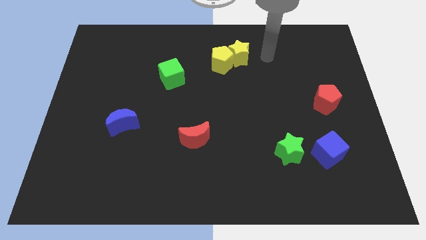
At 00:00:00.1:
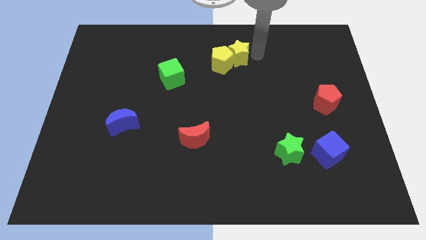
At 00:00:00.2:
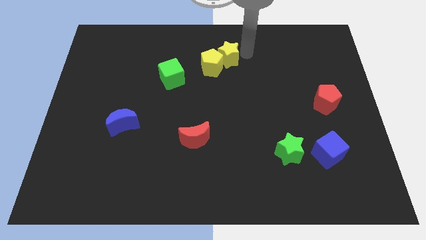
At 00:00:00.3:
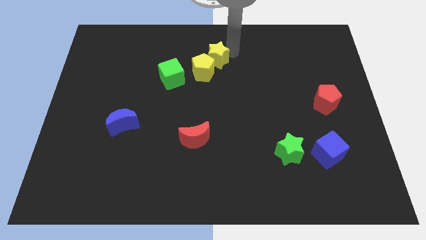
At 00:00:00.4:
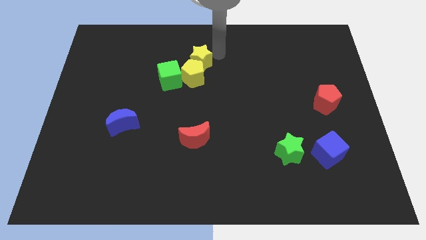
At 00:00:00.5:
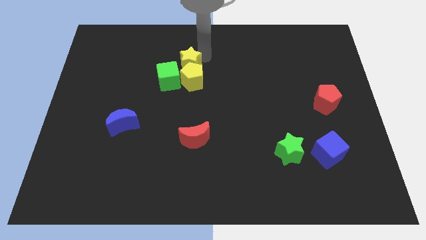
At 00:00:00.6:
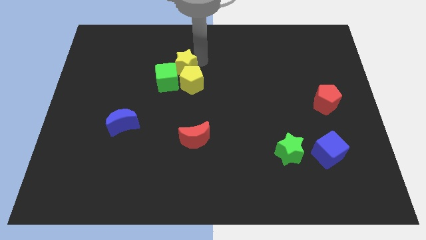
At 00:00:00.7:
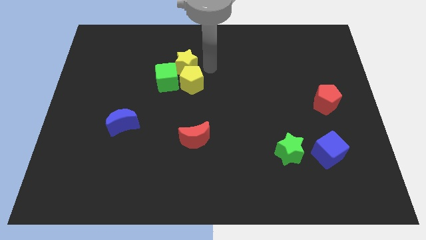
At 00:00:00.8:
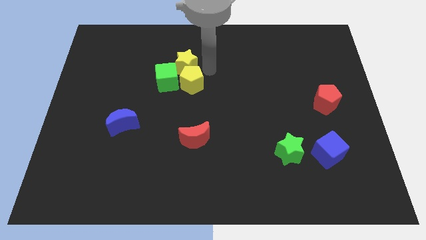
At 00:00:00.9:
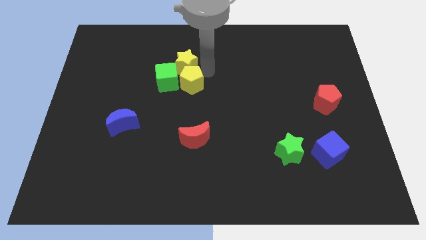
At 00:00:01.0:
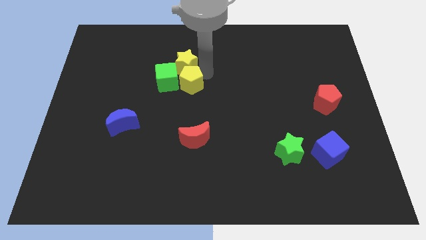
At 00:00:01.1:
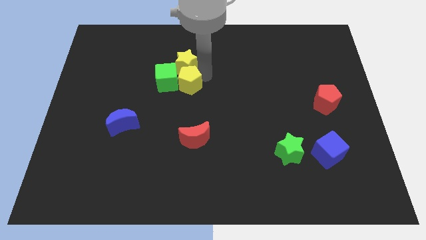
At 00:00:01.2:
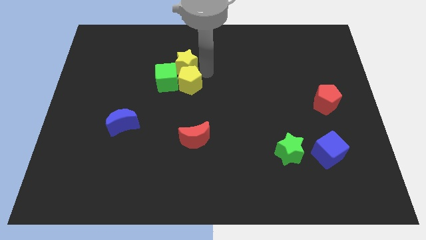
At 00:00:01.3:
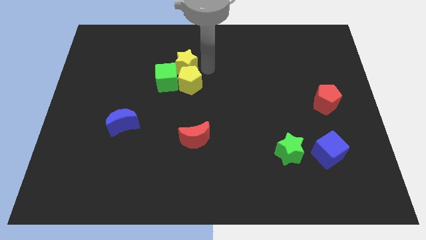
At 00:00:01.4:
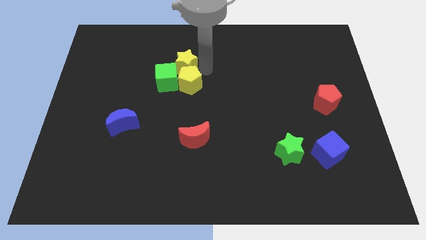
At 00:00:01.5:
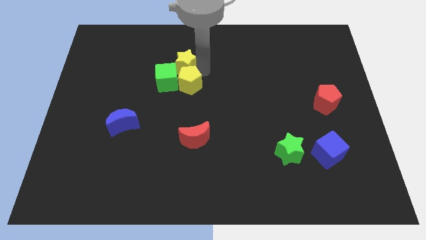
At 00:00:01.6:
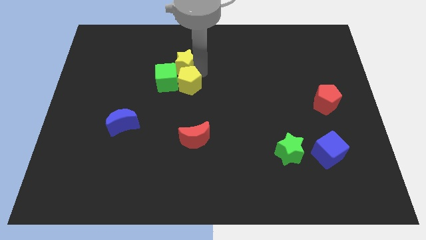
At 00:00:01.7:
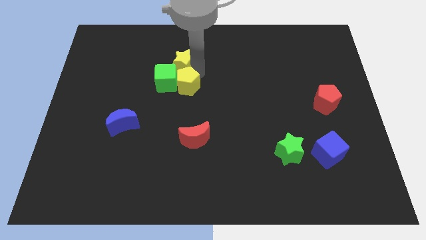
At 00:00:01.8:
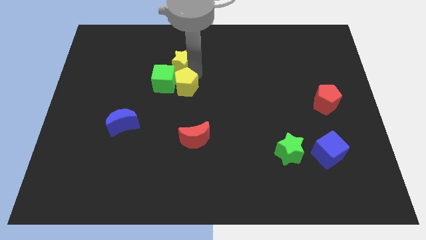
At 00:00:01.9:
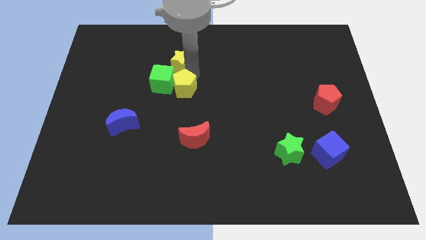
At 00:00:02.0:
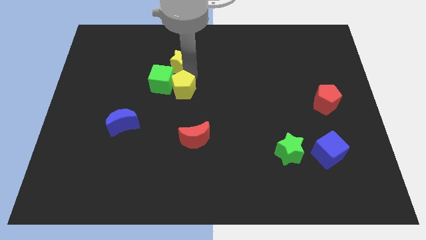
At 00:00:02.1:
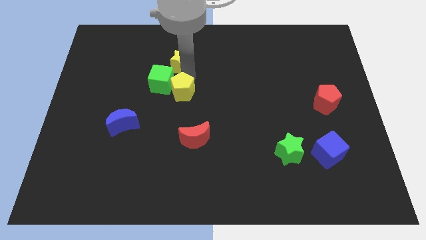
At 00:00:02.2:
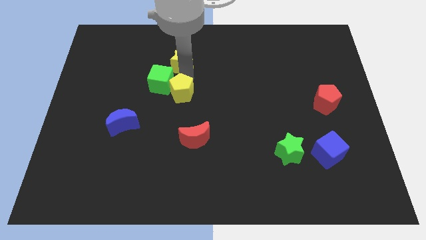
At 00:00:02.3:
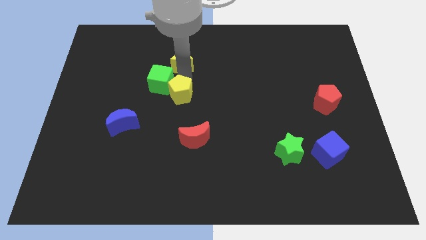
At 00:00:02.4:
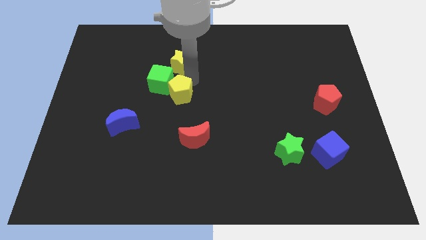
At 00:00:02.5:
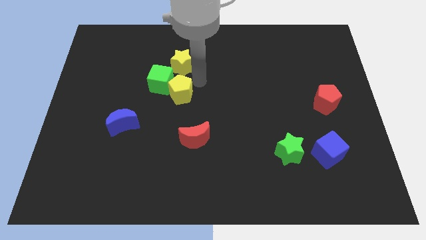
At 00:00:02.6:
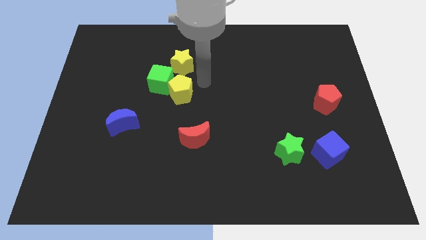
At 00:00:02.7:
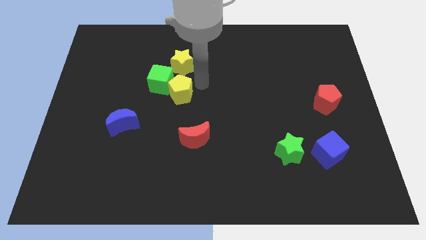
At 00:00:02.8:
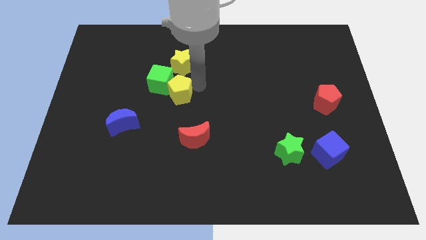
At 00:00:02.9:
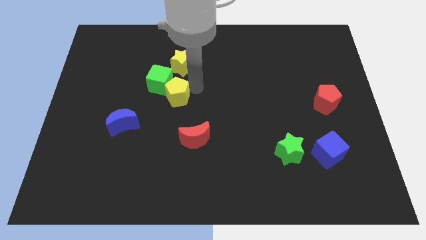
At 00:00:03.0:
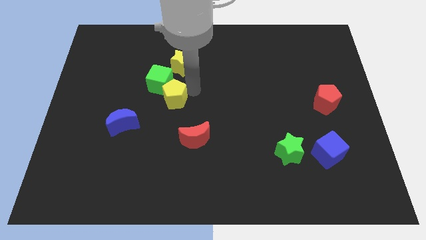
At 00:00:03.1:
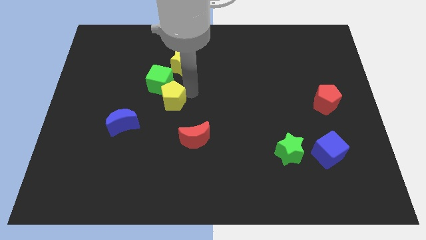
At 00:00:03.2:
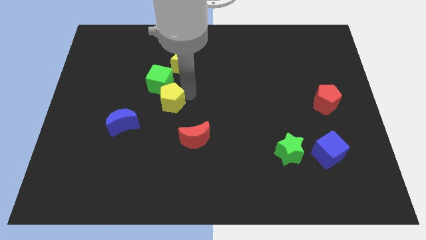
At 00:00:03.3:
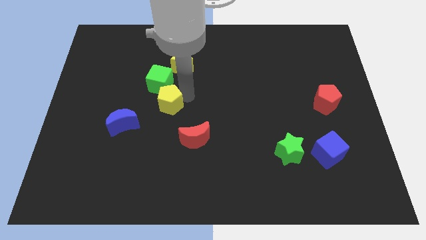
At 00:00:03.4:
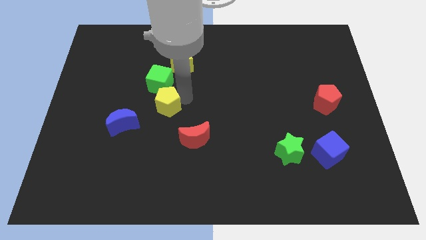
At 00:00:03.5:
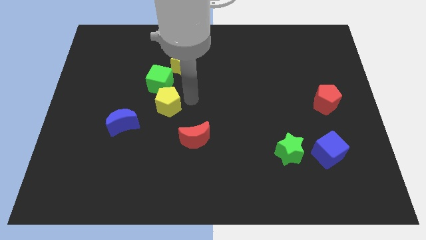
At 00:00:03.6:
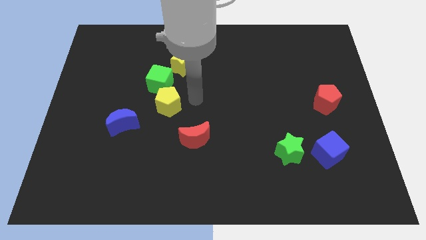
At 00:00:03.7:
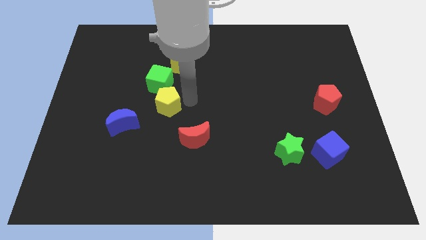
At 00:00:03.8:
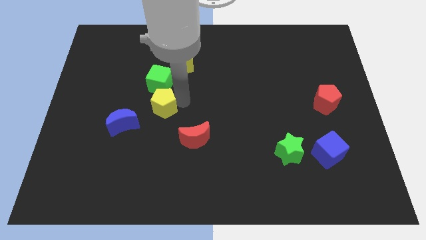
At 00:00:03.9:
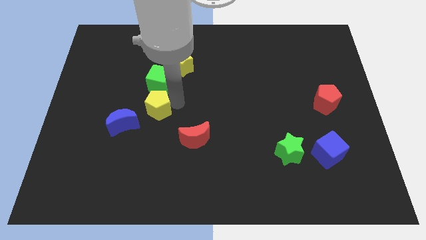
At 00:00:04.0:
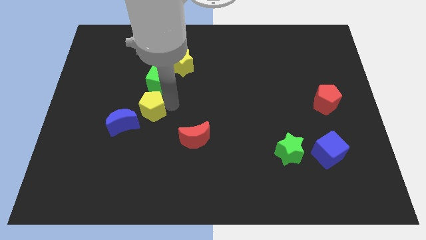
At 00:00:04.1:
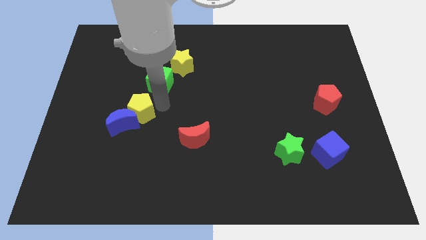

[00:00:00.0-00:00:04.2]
slide the yellow pentagon towards the blue moon

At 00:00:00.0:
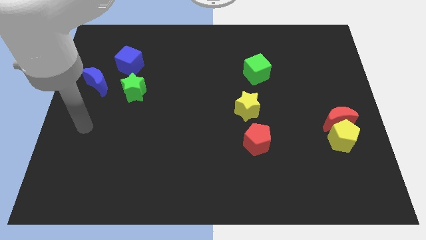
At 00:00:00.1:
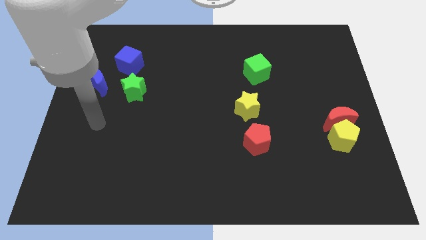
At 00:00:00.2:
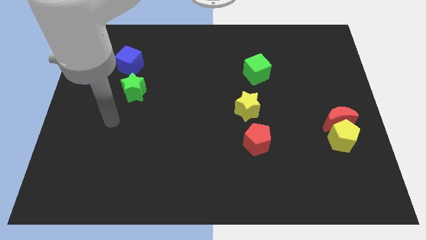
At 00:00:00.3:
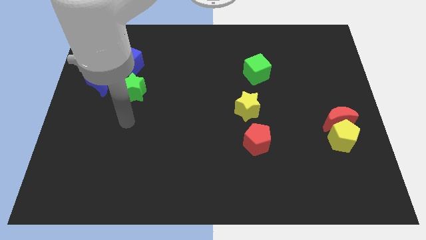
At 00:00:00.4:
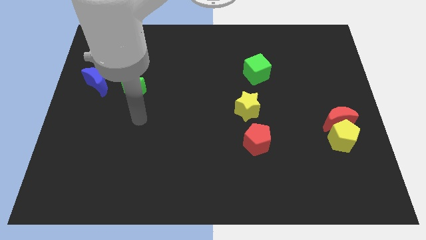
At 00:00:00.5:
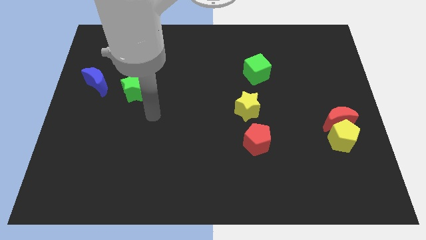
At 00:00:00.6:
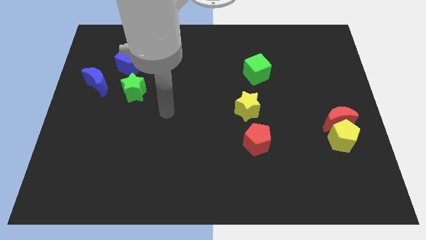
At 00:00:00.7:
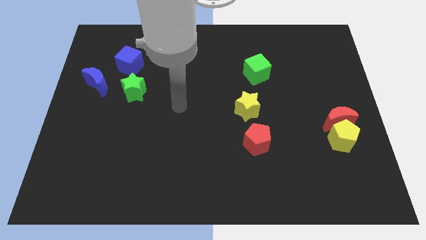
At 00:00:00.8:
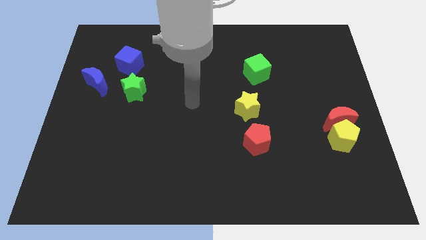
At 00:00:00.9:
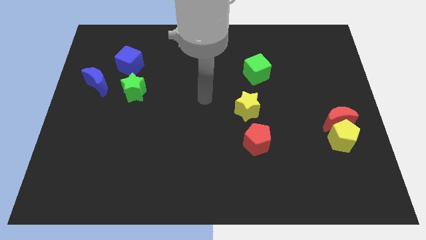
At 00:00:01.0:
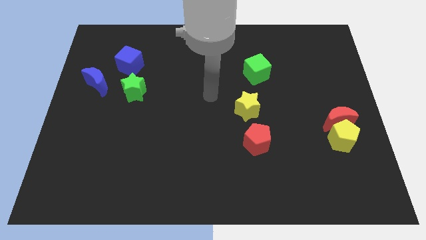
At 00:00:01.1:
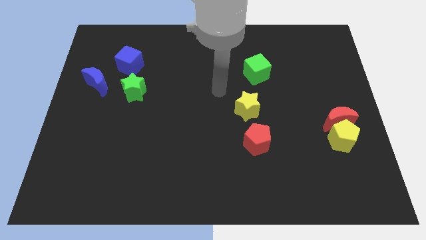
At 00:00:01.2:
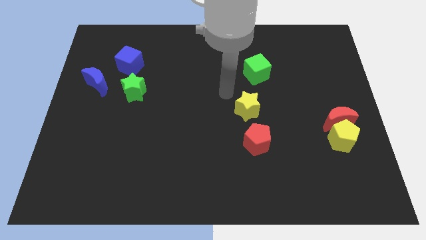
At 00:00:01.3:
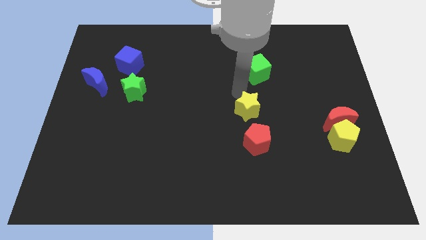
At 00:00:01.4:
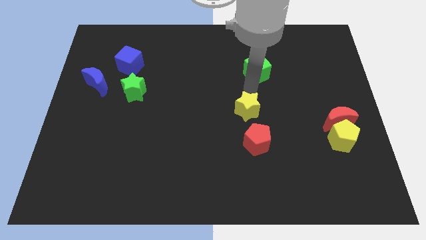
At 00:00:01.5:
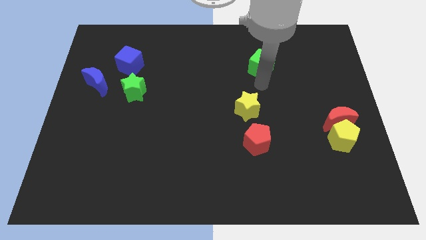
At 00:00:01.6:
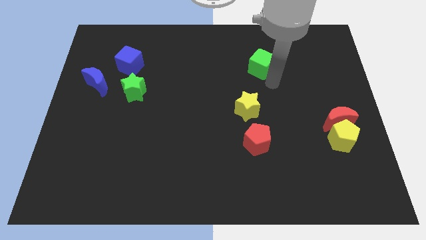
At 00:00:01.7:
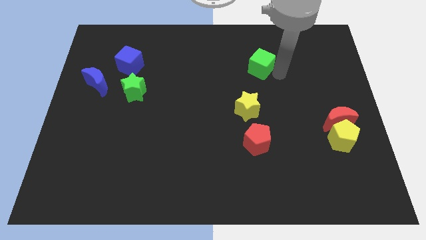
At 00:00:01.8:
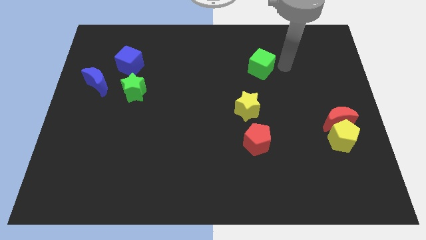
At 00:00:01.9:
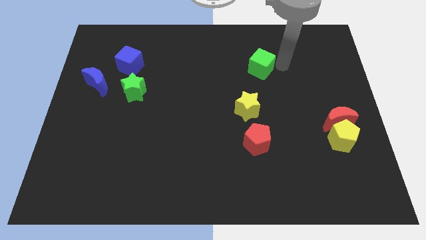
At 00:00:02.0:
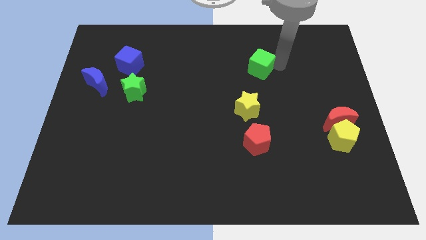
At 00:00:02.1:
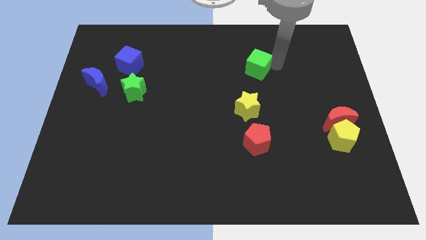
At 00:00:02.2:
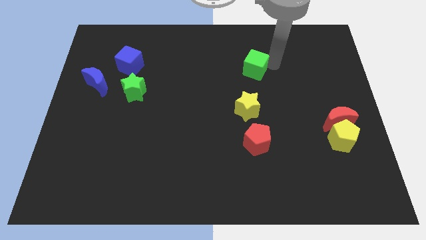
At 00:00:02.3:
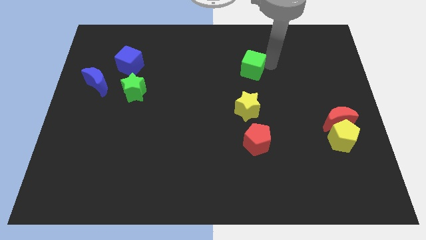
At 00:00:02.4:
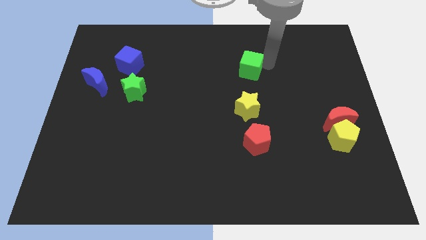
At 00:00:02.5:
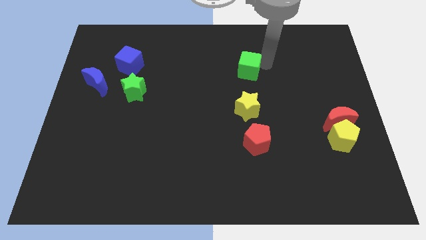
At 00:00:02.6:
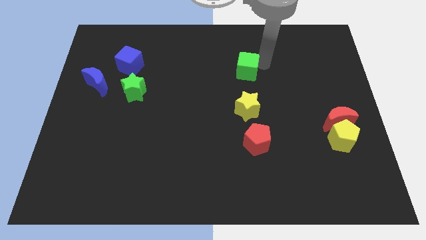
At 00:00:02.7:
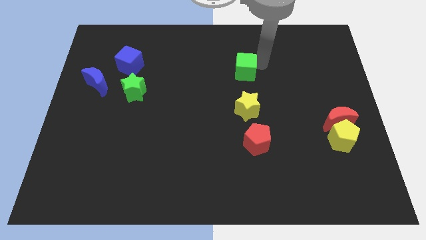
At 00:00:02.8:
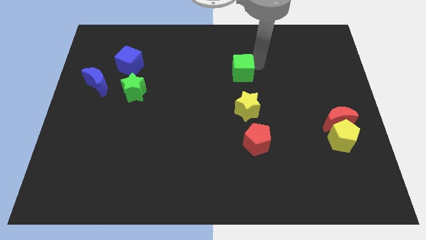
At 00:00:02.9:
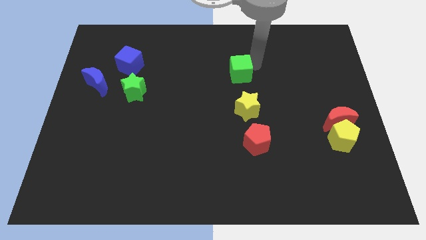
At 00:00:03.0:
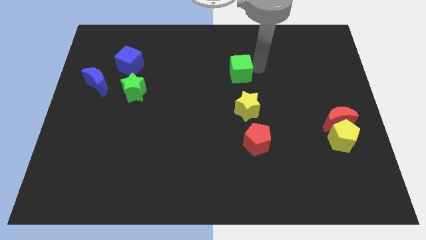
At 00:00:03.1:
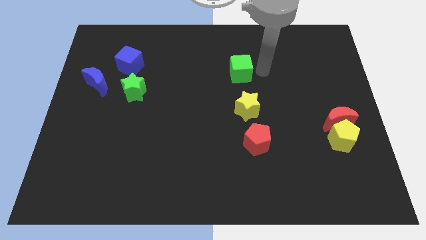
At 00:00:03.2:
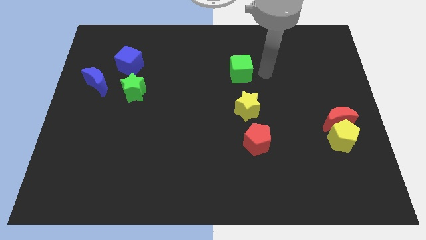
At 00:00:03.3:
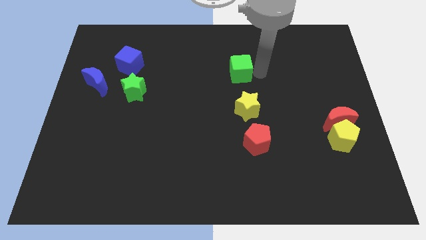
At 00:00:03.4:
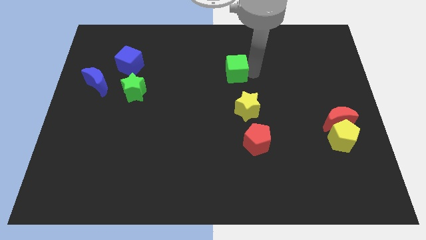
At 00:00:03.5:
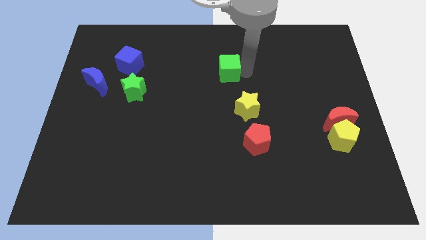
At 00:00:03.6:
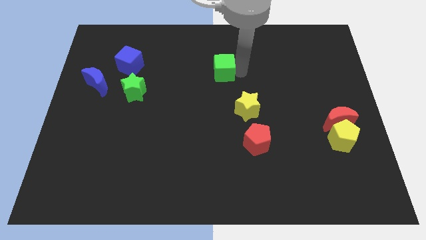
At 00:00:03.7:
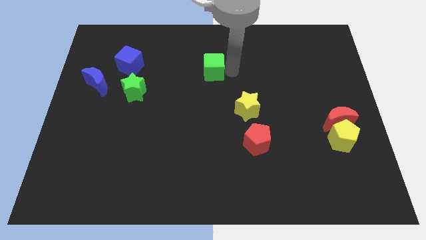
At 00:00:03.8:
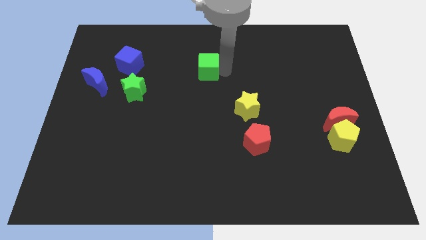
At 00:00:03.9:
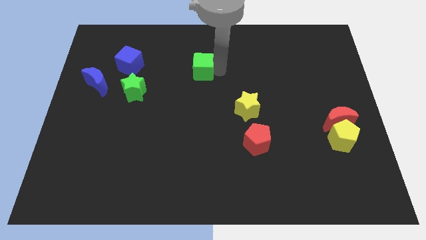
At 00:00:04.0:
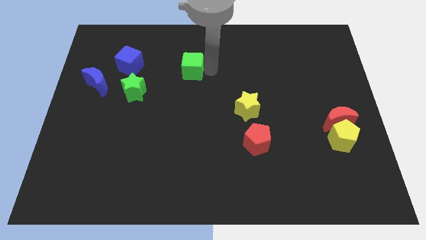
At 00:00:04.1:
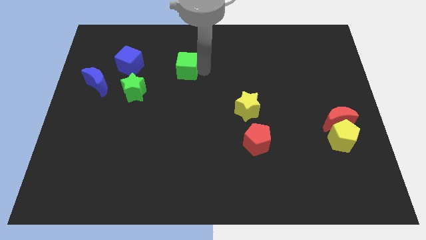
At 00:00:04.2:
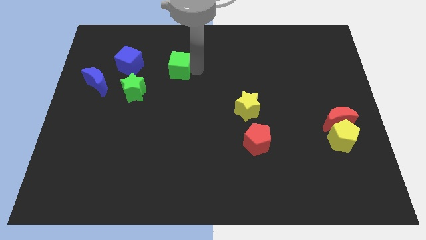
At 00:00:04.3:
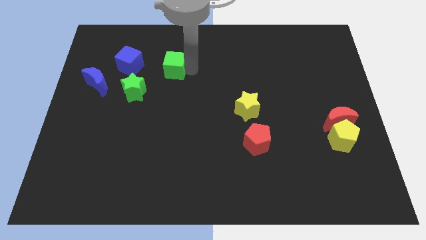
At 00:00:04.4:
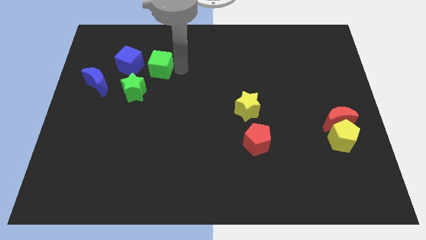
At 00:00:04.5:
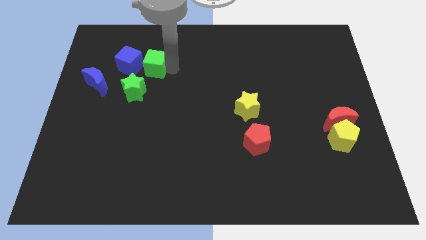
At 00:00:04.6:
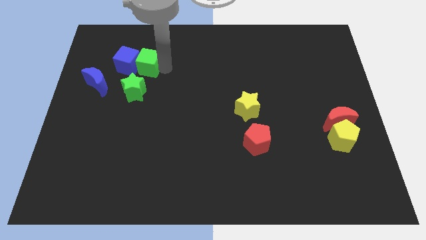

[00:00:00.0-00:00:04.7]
slide the green cube next to the blue cube
